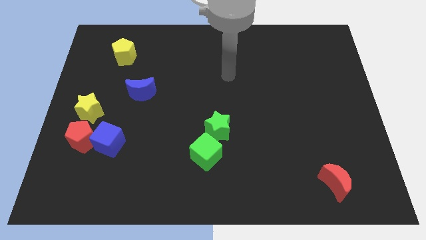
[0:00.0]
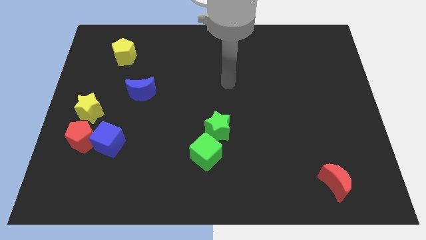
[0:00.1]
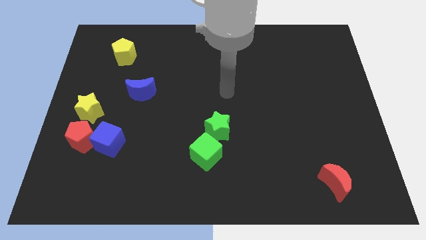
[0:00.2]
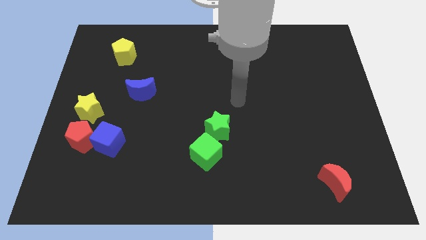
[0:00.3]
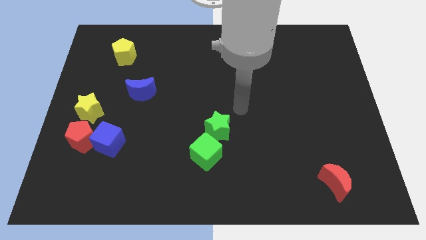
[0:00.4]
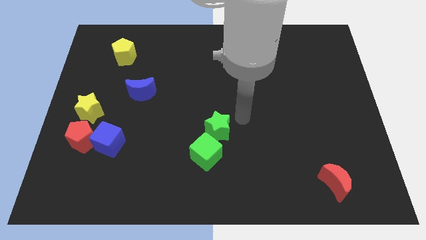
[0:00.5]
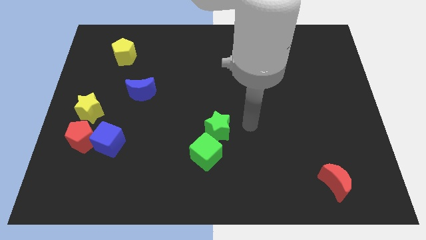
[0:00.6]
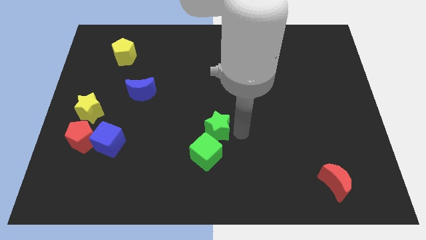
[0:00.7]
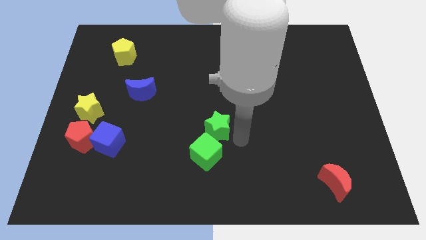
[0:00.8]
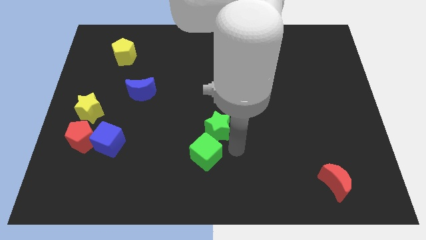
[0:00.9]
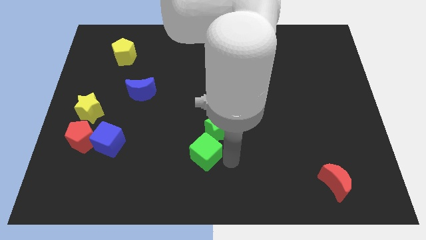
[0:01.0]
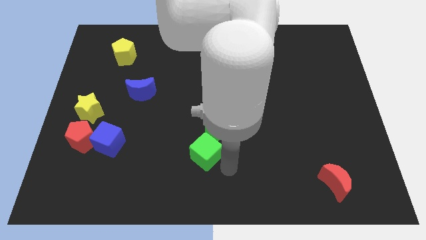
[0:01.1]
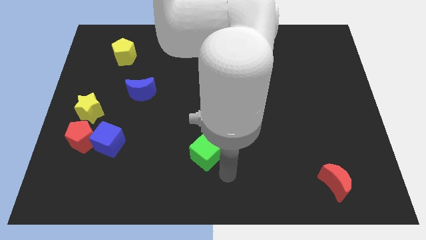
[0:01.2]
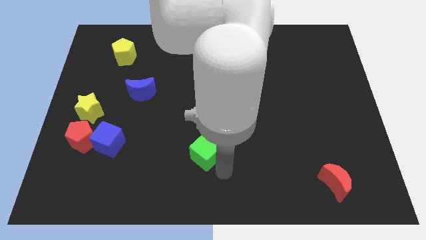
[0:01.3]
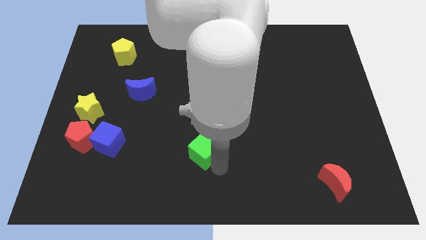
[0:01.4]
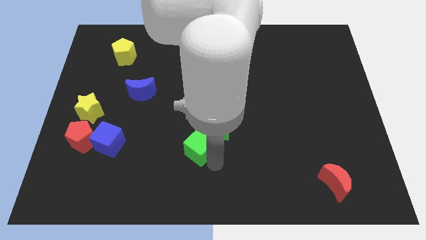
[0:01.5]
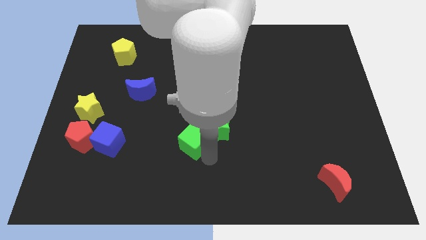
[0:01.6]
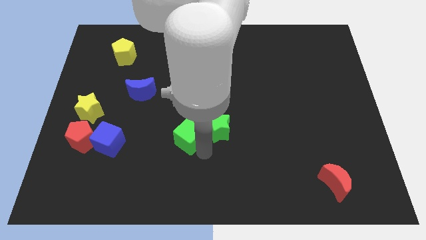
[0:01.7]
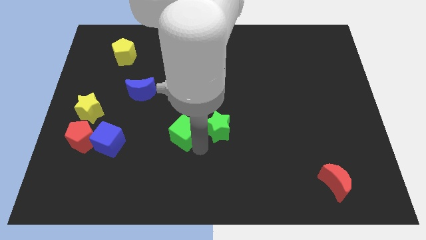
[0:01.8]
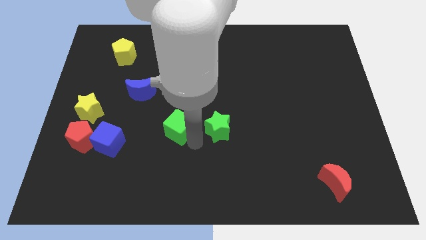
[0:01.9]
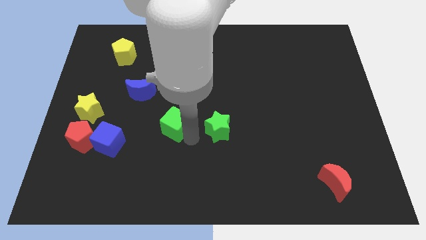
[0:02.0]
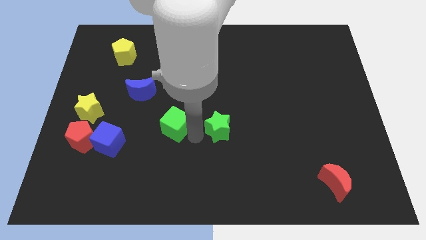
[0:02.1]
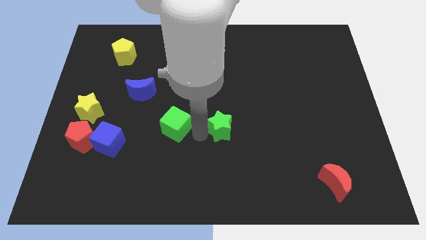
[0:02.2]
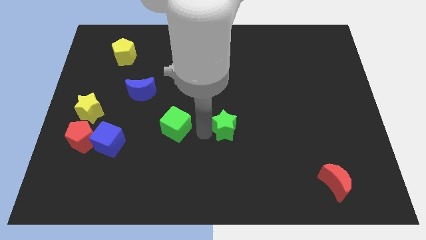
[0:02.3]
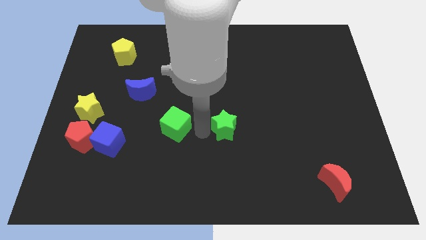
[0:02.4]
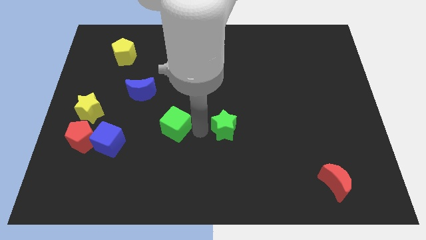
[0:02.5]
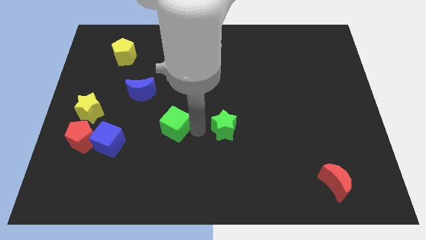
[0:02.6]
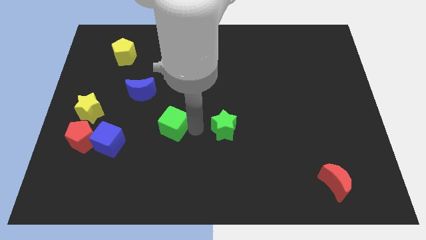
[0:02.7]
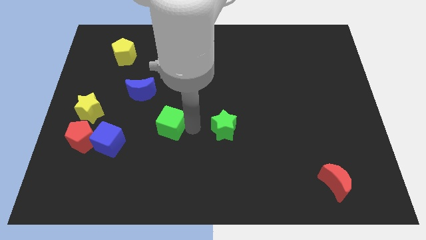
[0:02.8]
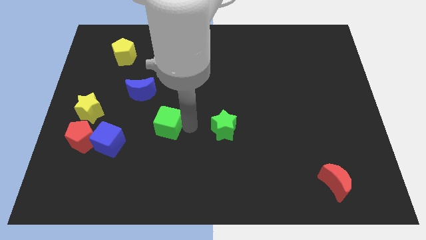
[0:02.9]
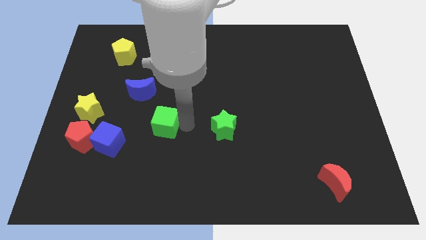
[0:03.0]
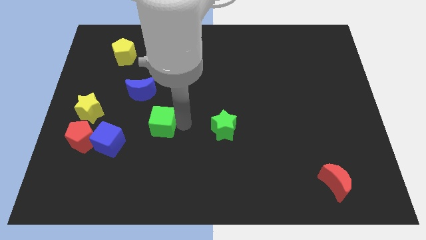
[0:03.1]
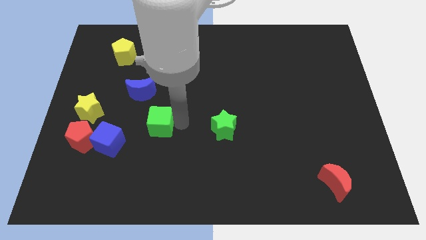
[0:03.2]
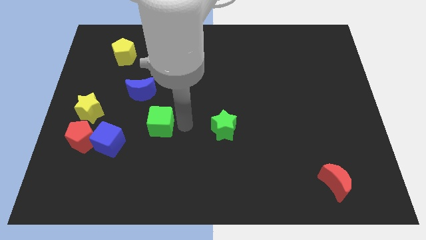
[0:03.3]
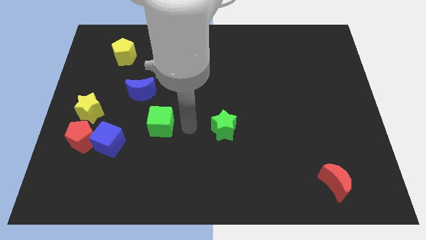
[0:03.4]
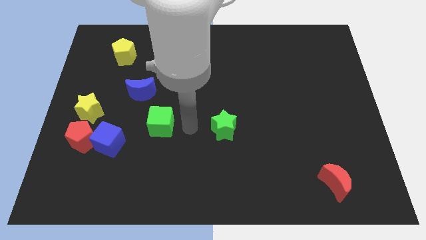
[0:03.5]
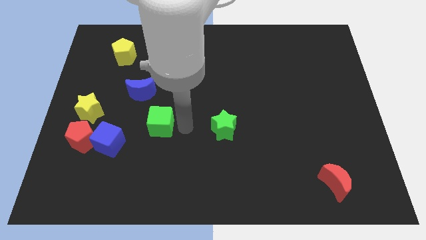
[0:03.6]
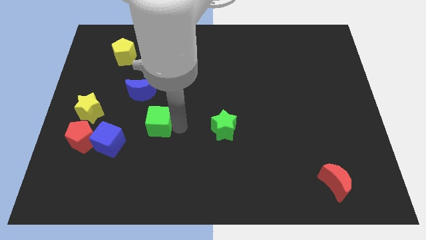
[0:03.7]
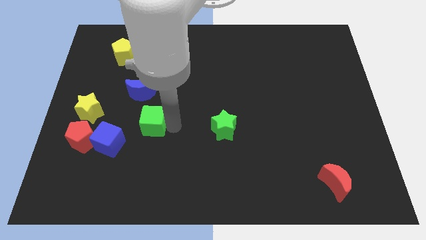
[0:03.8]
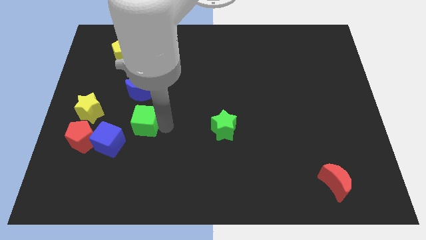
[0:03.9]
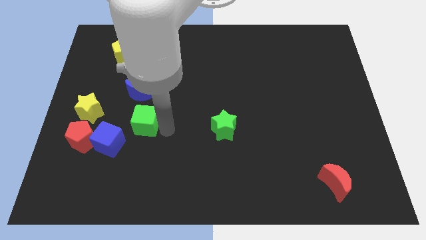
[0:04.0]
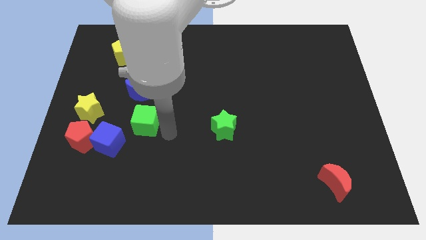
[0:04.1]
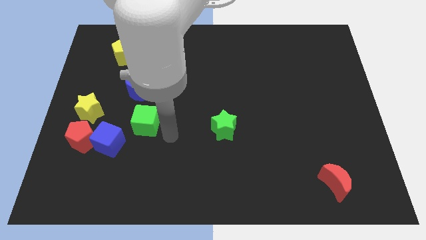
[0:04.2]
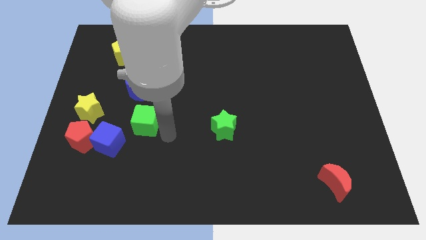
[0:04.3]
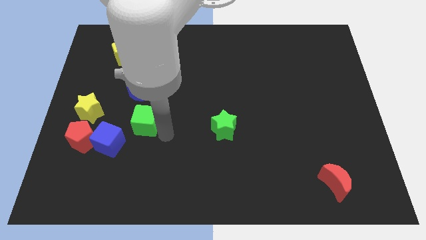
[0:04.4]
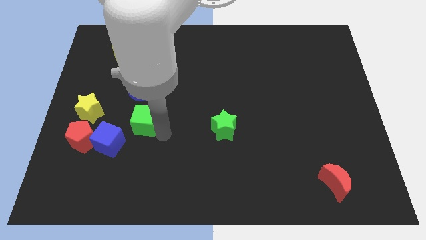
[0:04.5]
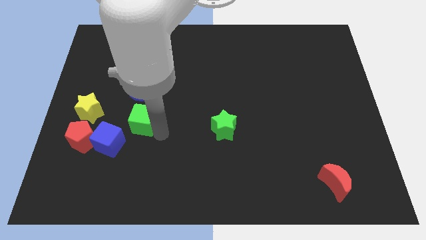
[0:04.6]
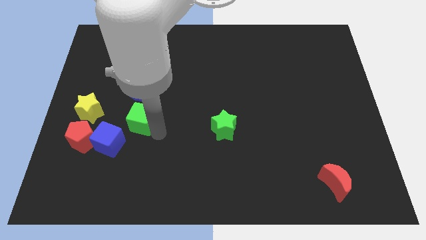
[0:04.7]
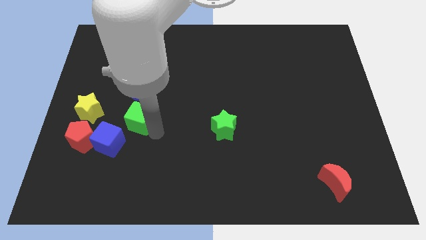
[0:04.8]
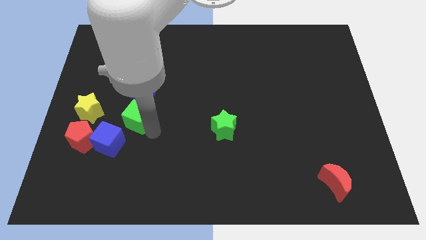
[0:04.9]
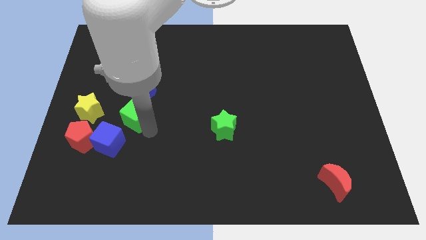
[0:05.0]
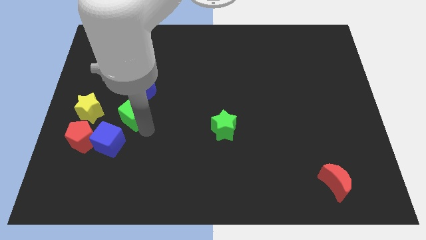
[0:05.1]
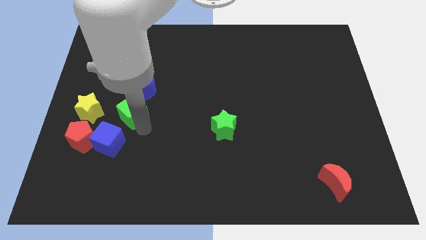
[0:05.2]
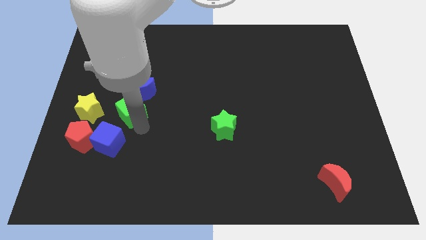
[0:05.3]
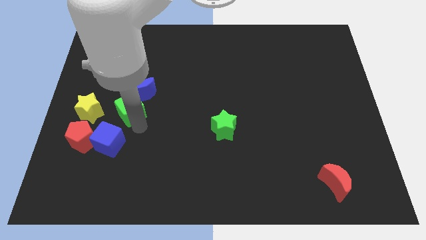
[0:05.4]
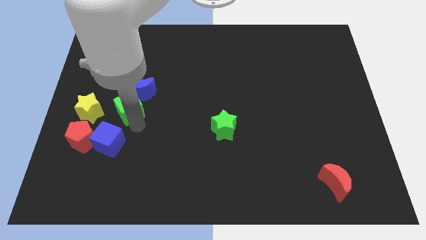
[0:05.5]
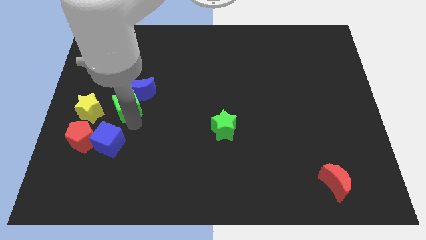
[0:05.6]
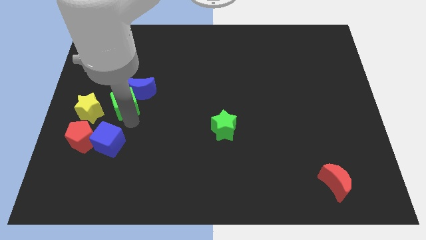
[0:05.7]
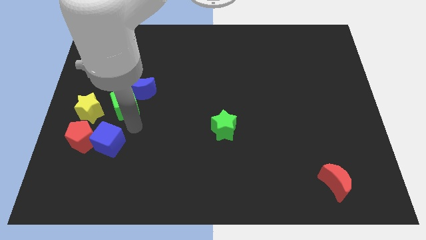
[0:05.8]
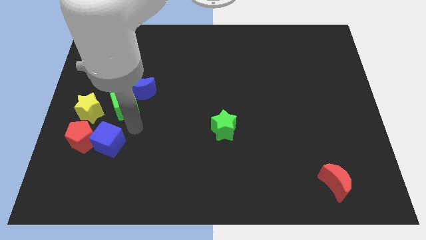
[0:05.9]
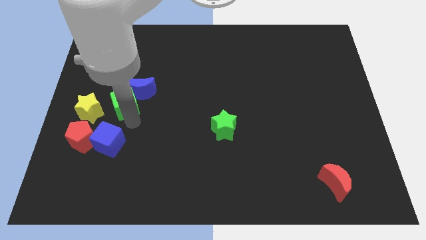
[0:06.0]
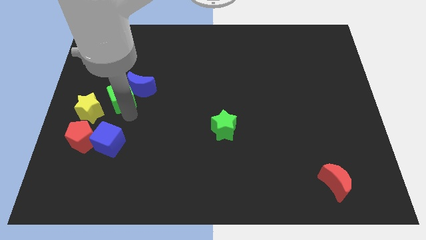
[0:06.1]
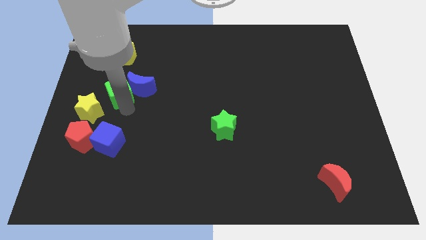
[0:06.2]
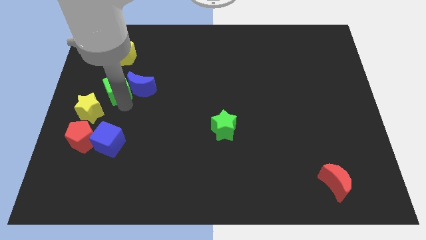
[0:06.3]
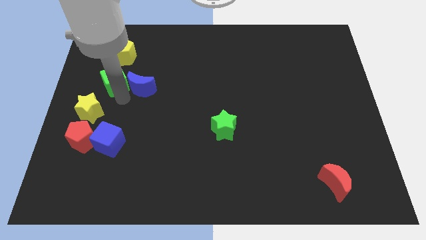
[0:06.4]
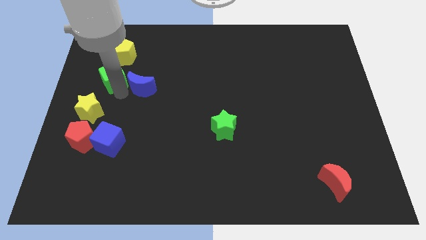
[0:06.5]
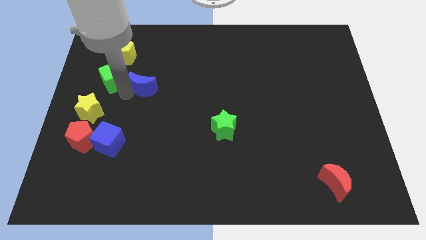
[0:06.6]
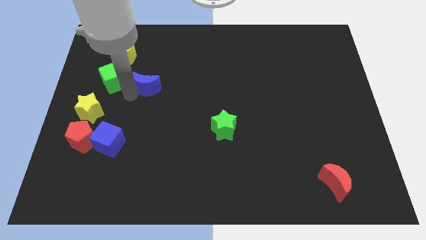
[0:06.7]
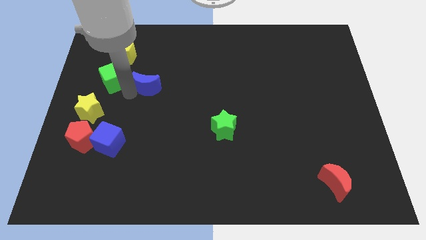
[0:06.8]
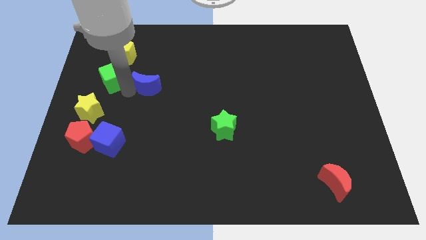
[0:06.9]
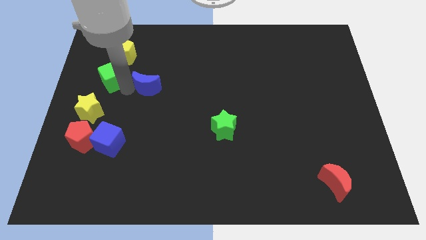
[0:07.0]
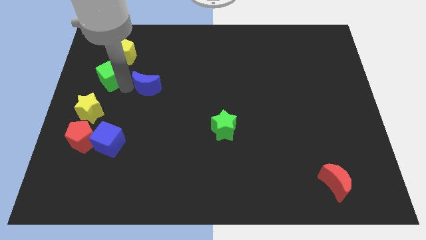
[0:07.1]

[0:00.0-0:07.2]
put the green cube to the bottom left side of the yellow pentagon

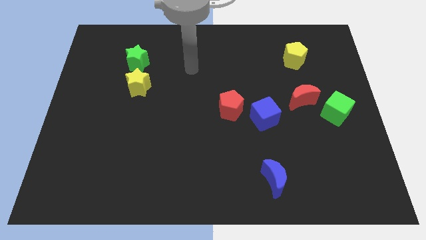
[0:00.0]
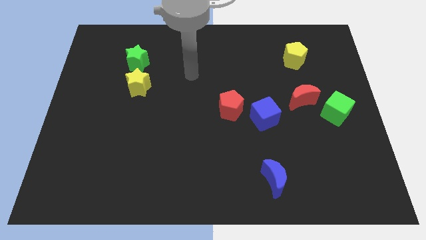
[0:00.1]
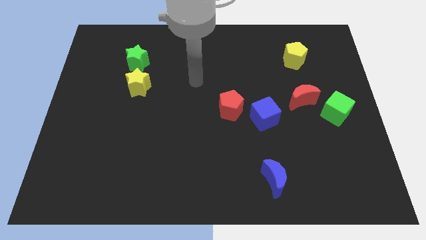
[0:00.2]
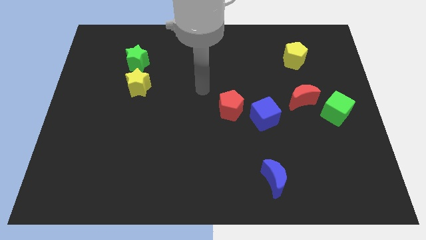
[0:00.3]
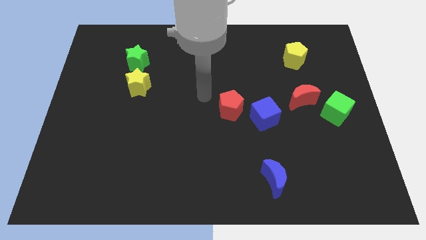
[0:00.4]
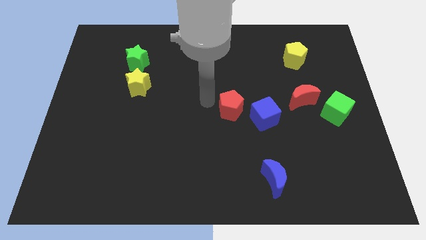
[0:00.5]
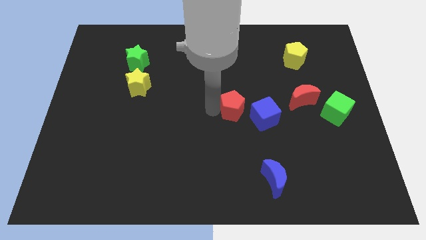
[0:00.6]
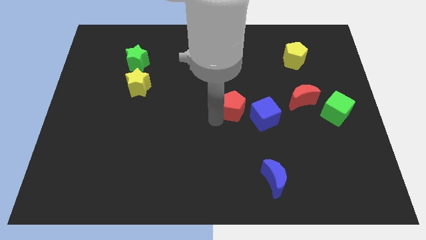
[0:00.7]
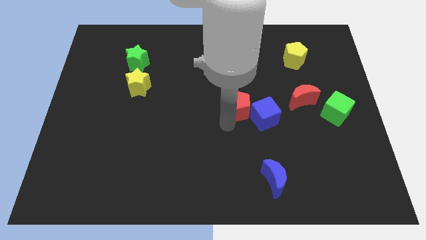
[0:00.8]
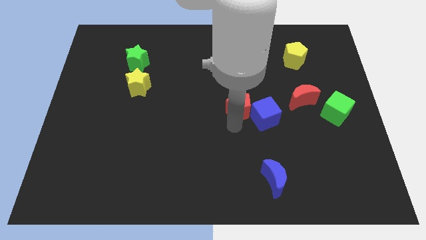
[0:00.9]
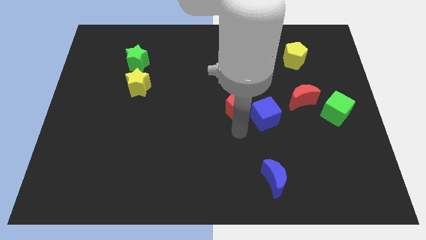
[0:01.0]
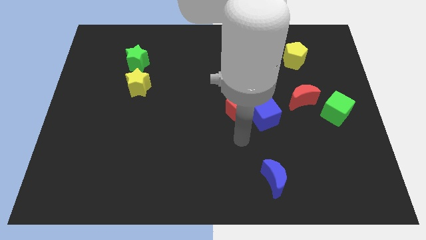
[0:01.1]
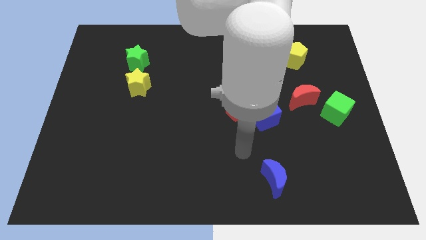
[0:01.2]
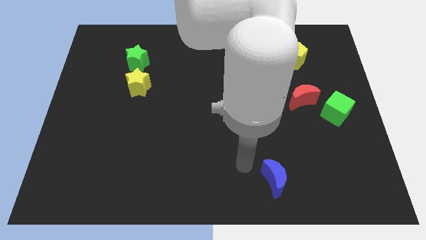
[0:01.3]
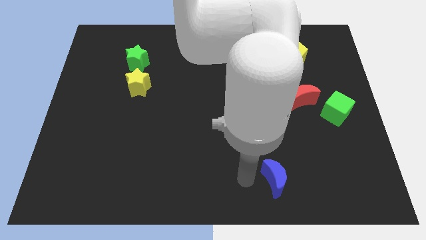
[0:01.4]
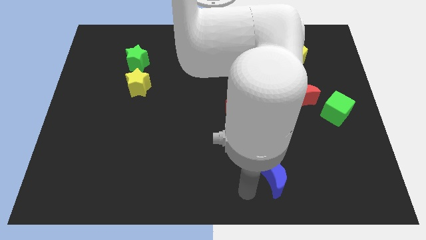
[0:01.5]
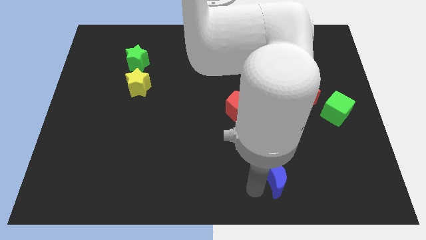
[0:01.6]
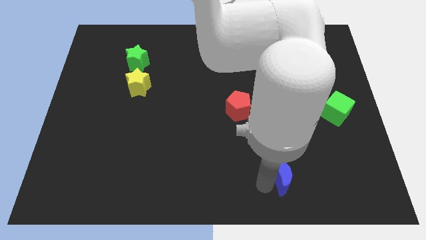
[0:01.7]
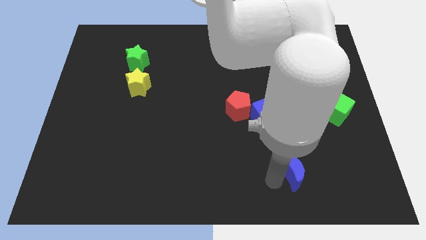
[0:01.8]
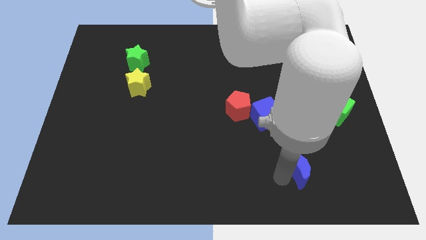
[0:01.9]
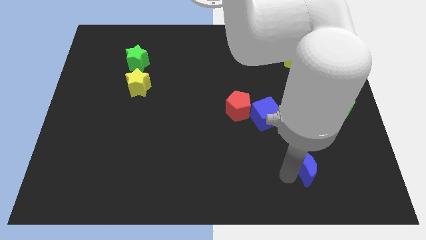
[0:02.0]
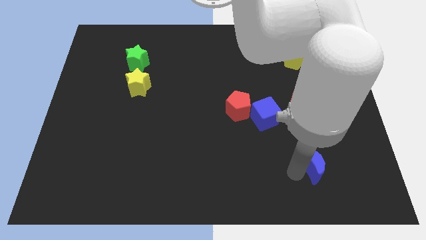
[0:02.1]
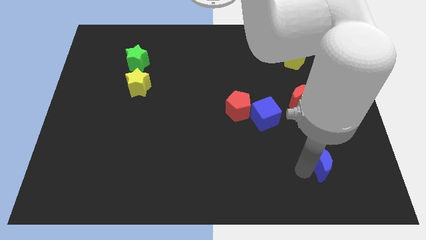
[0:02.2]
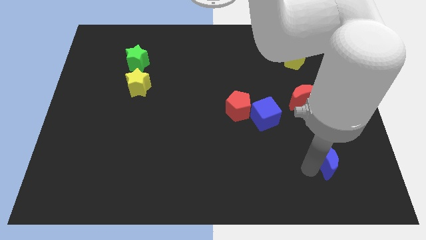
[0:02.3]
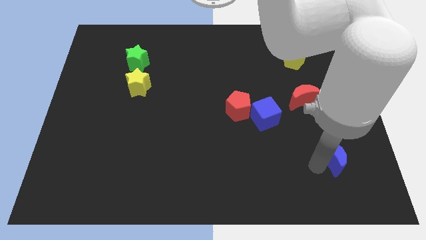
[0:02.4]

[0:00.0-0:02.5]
push the blue moon to the bottom of the green cube
